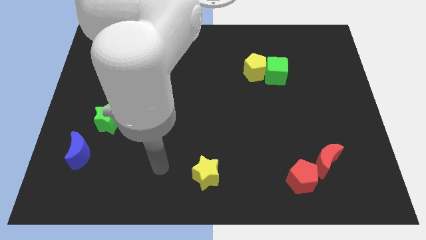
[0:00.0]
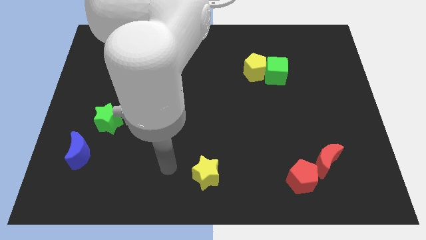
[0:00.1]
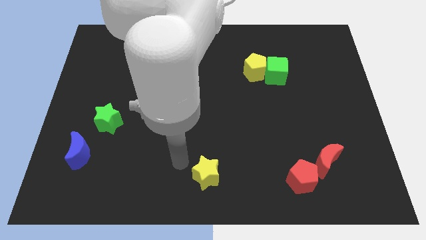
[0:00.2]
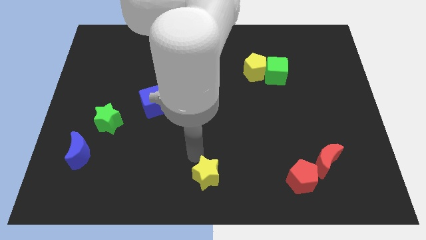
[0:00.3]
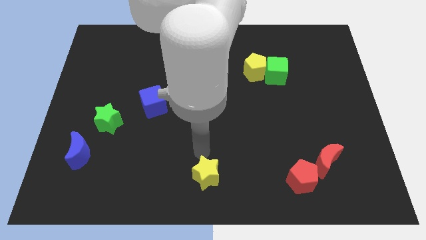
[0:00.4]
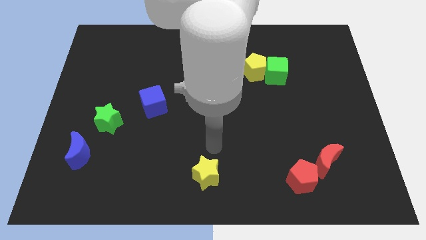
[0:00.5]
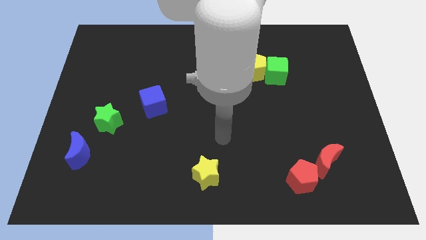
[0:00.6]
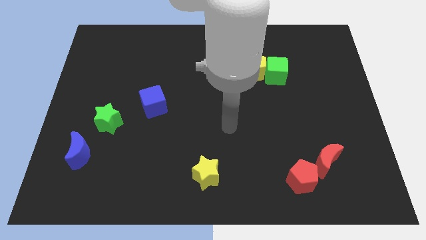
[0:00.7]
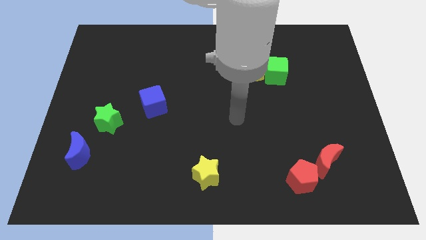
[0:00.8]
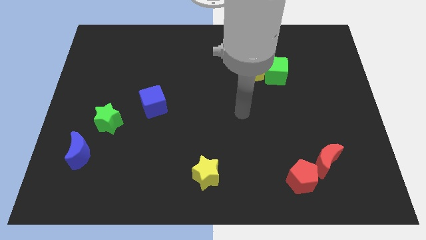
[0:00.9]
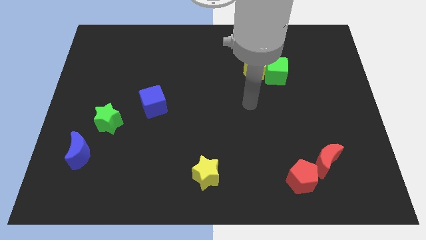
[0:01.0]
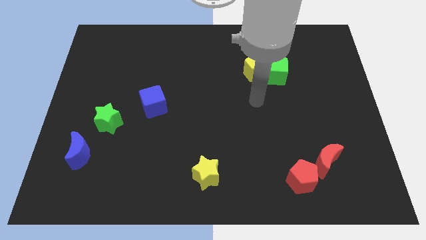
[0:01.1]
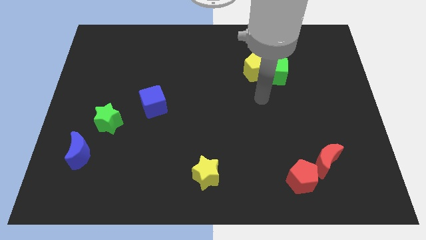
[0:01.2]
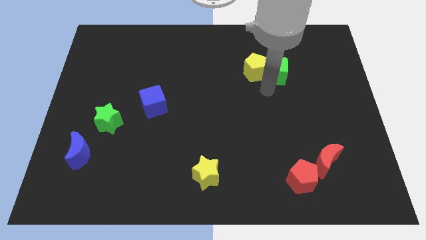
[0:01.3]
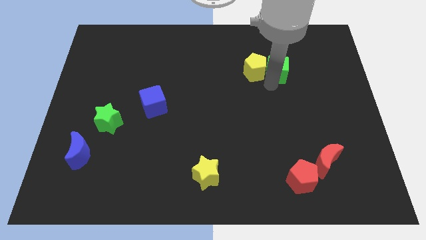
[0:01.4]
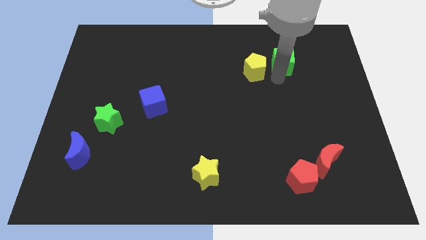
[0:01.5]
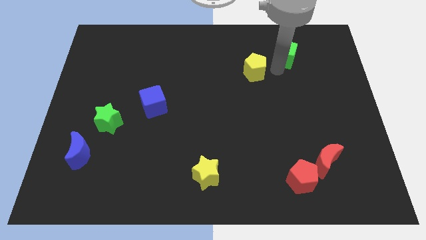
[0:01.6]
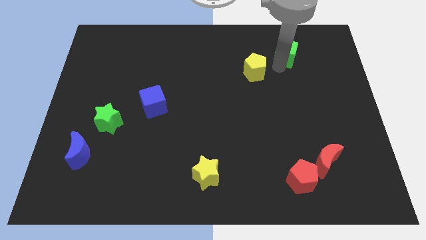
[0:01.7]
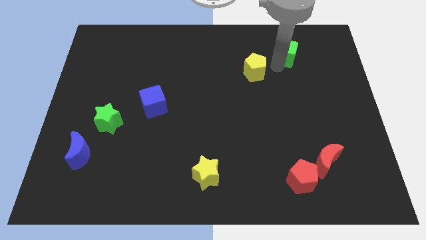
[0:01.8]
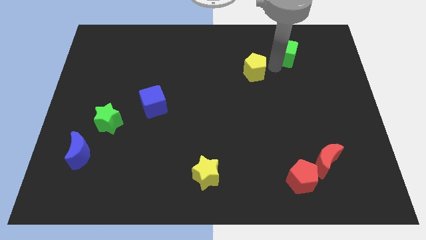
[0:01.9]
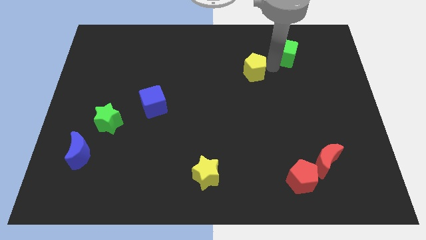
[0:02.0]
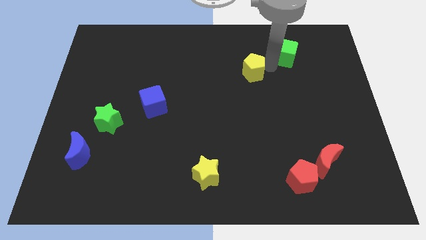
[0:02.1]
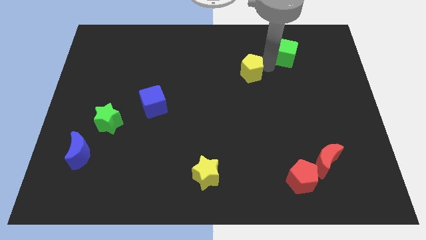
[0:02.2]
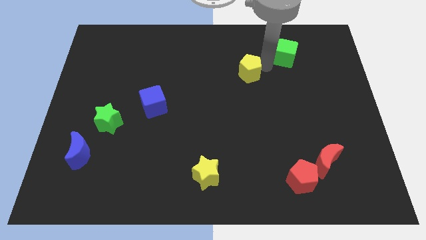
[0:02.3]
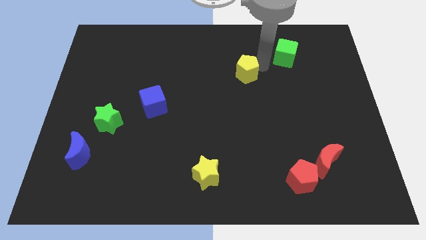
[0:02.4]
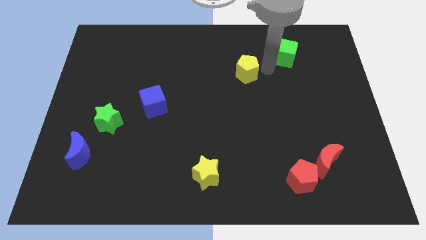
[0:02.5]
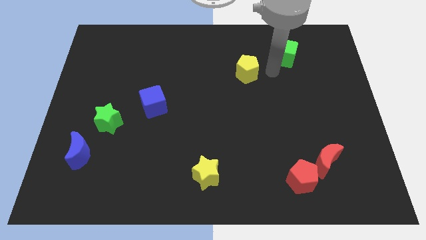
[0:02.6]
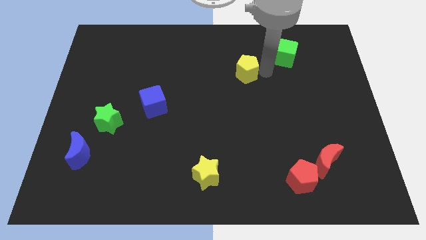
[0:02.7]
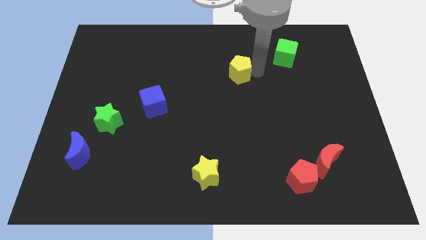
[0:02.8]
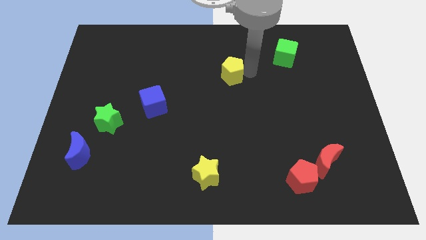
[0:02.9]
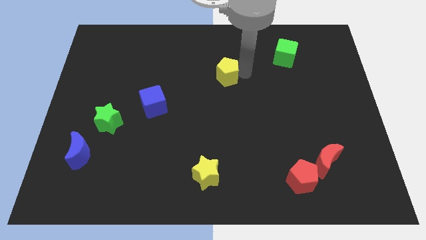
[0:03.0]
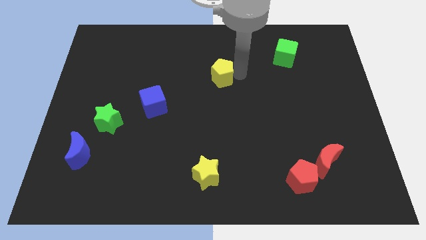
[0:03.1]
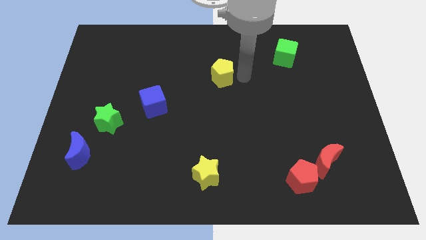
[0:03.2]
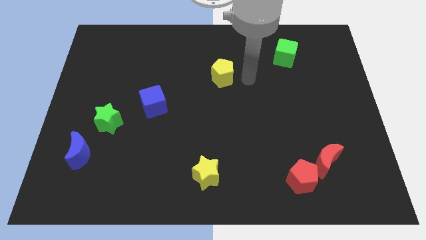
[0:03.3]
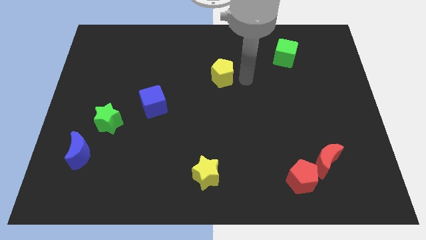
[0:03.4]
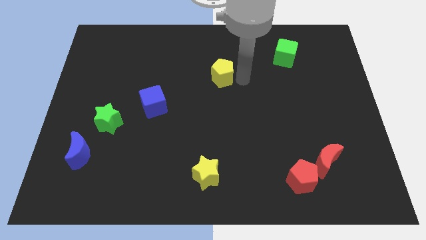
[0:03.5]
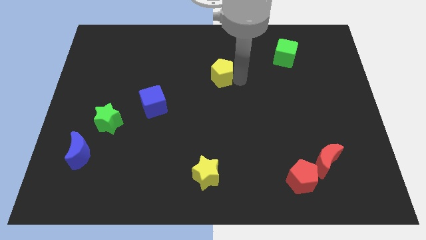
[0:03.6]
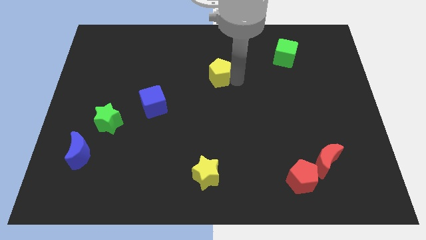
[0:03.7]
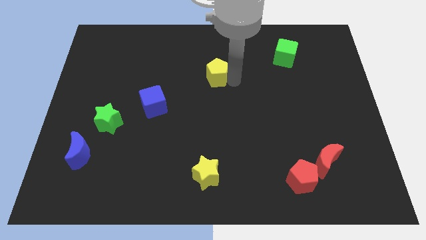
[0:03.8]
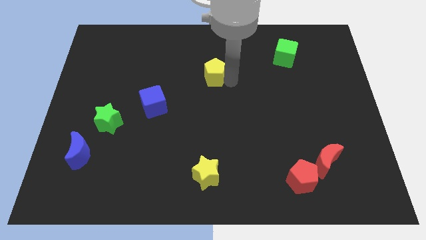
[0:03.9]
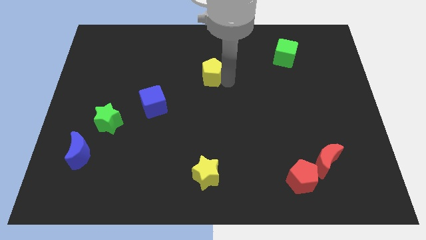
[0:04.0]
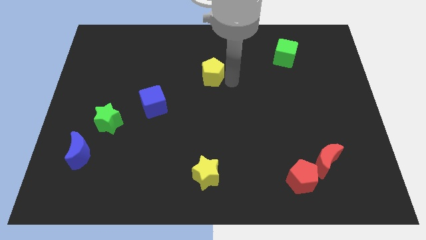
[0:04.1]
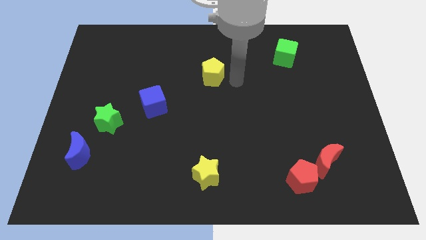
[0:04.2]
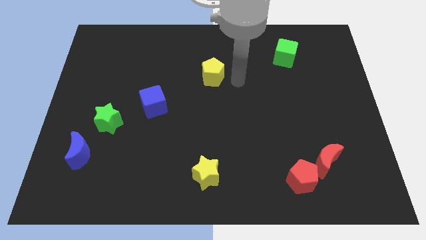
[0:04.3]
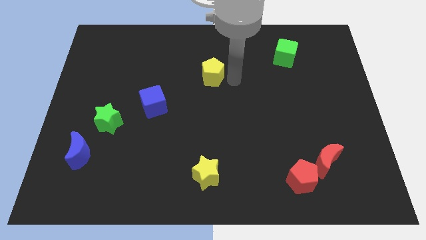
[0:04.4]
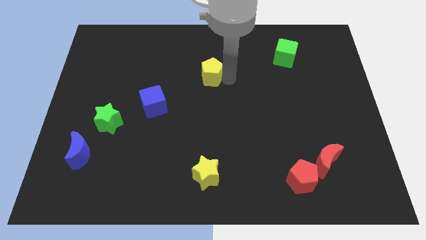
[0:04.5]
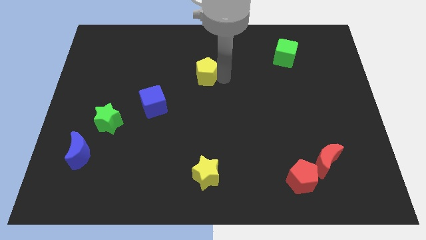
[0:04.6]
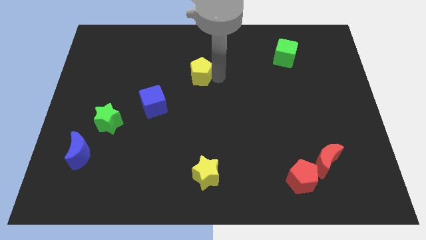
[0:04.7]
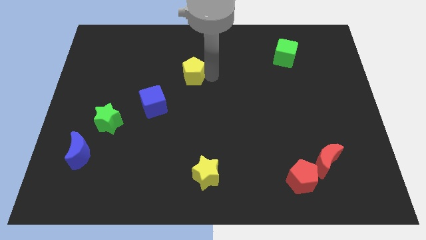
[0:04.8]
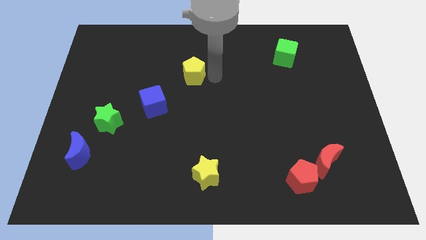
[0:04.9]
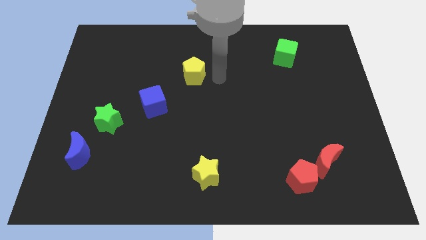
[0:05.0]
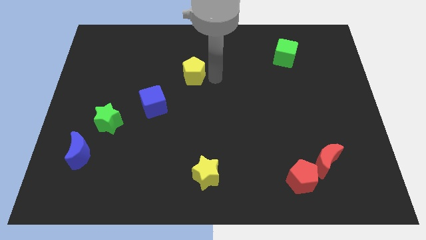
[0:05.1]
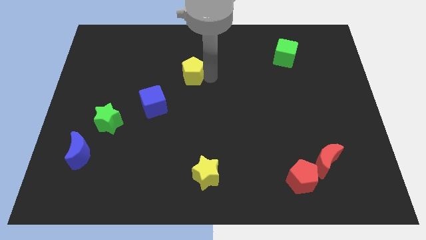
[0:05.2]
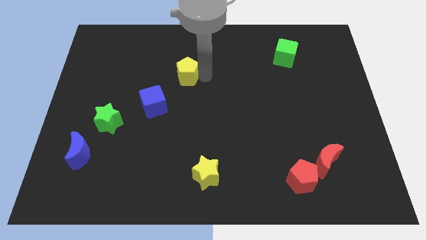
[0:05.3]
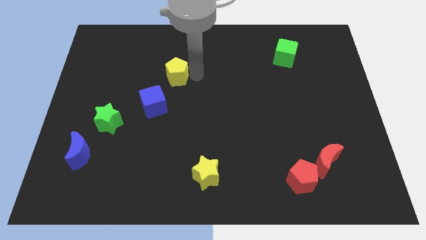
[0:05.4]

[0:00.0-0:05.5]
push the yellow pentagon above the blue cube

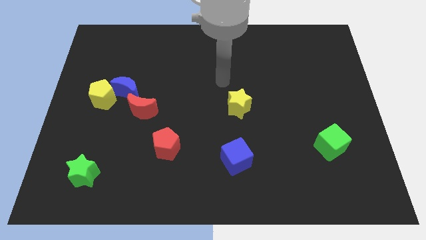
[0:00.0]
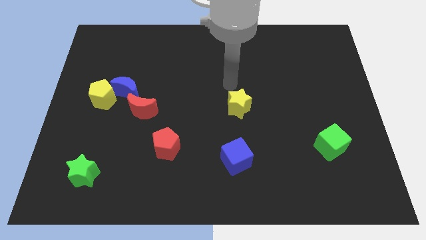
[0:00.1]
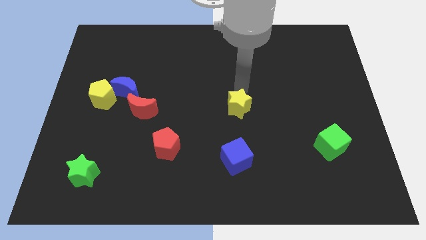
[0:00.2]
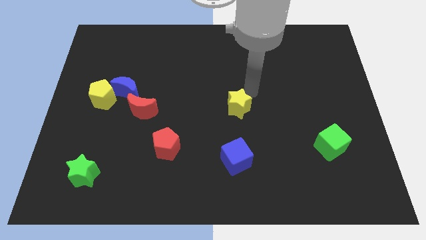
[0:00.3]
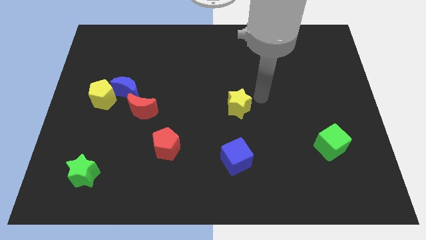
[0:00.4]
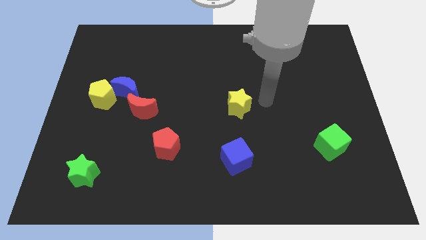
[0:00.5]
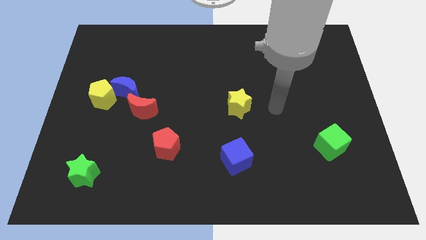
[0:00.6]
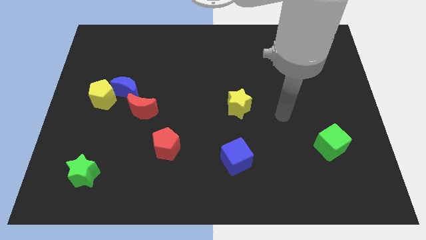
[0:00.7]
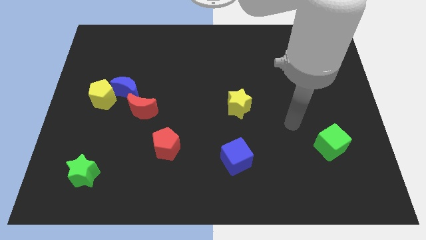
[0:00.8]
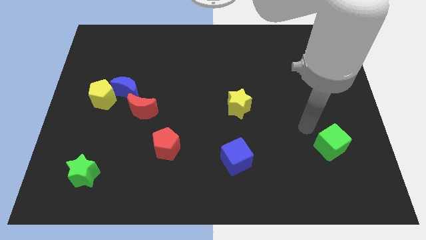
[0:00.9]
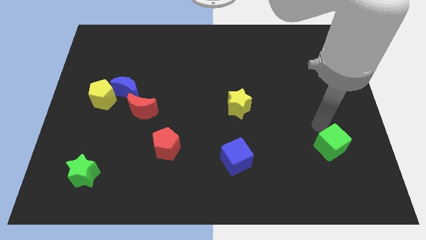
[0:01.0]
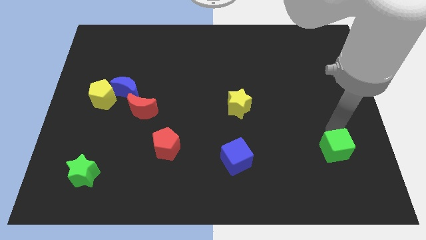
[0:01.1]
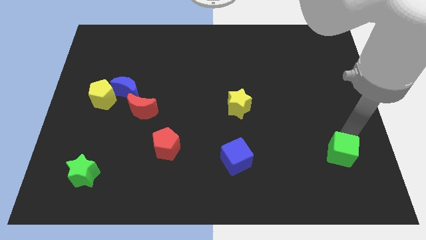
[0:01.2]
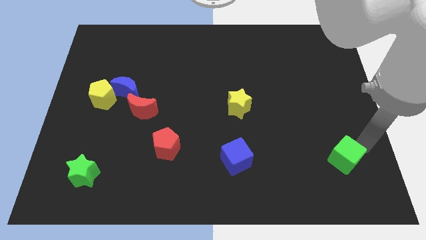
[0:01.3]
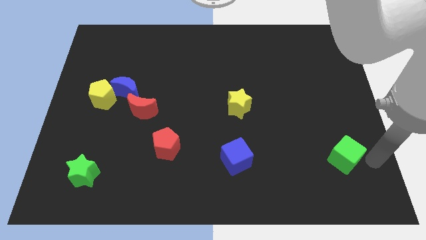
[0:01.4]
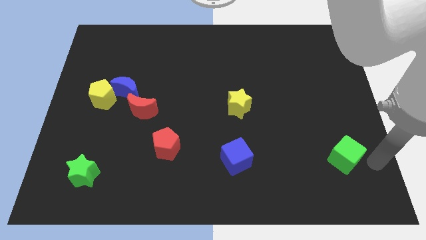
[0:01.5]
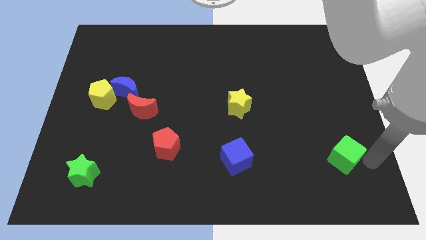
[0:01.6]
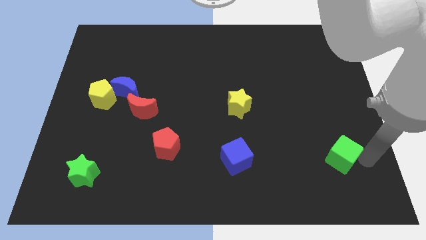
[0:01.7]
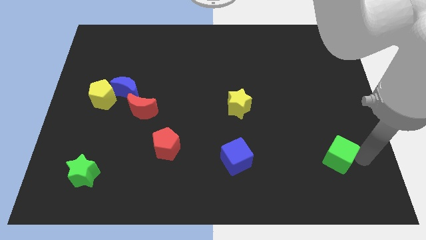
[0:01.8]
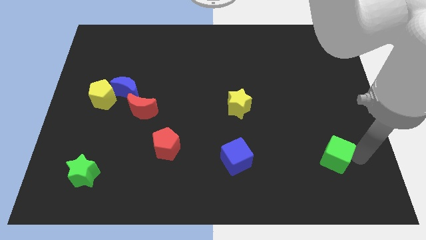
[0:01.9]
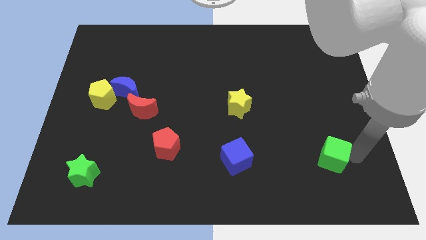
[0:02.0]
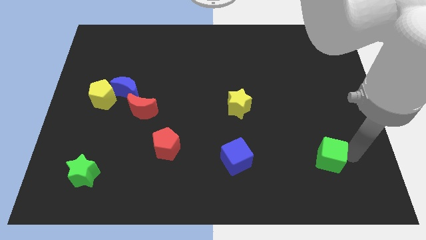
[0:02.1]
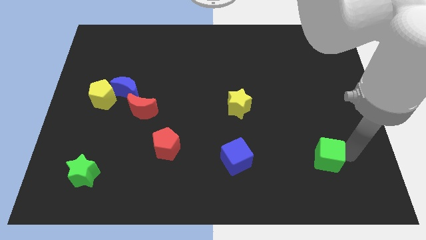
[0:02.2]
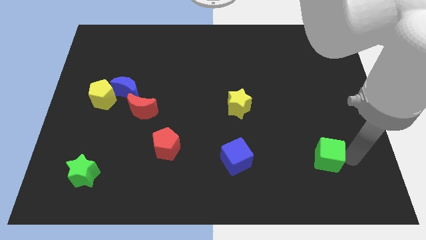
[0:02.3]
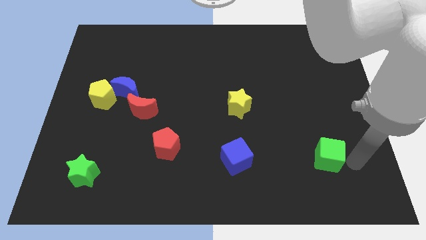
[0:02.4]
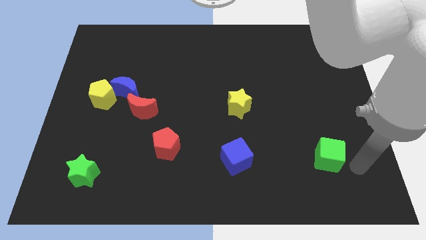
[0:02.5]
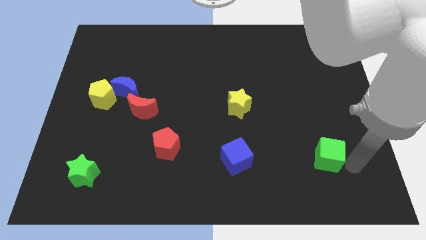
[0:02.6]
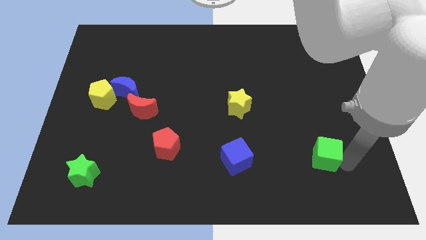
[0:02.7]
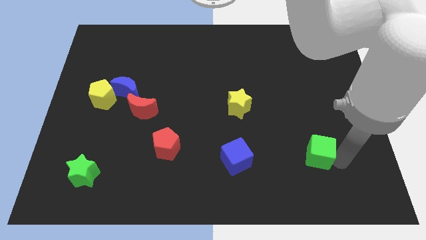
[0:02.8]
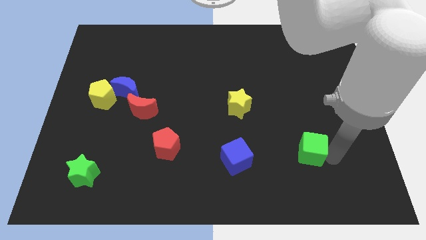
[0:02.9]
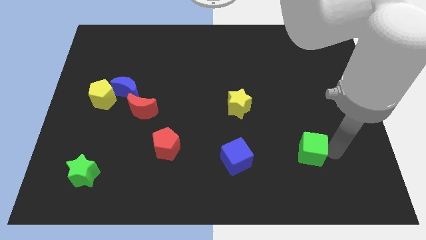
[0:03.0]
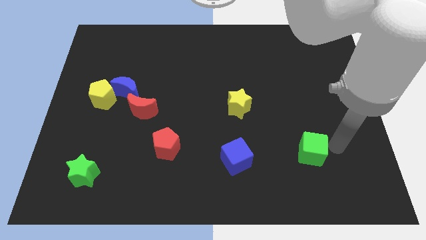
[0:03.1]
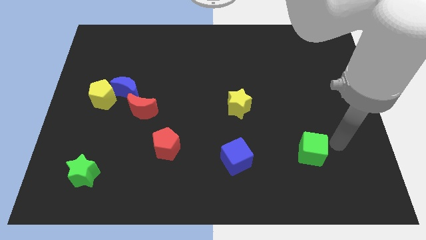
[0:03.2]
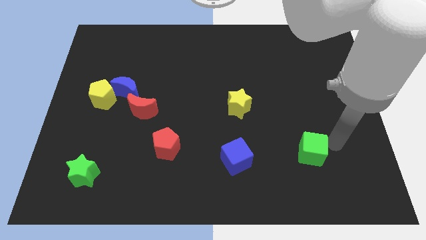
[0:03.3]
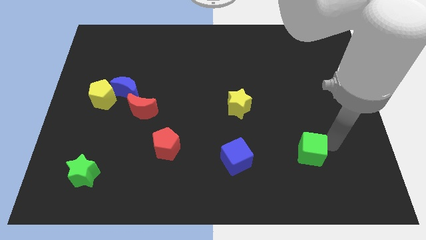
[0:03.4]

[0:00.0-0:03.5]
move the green cube right of the blue cube
